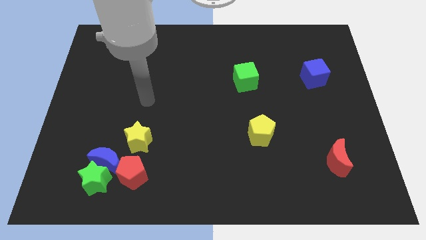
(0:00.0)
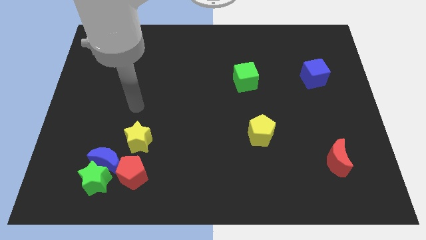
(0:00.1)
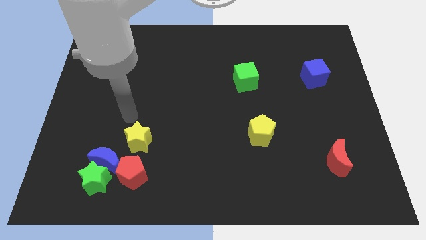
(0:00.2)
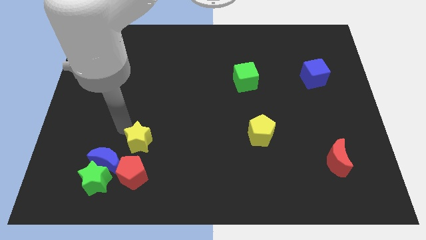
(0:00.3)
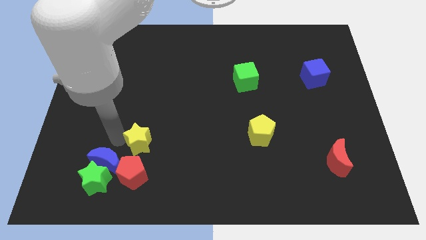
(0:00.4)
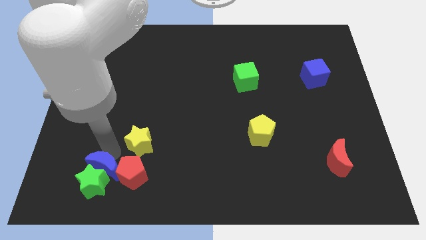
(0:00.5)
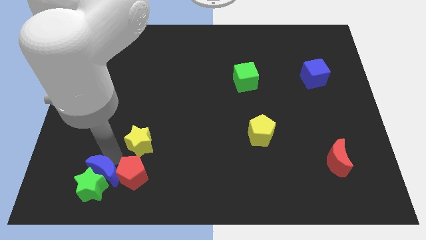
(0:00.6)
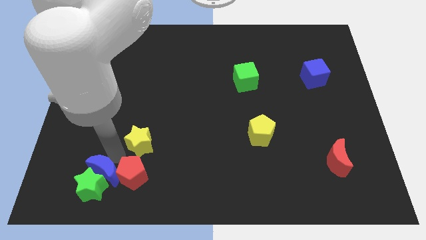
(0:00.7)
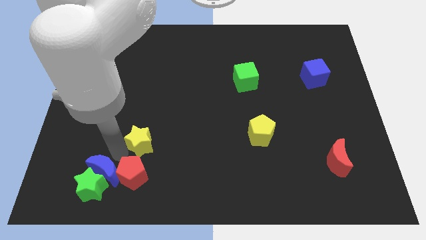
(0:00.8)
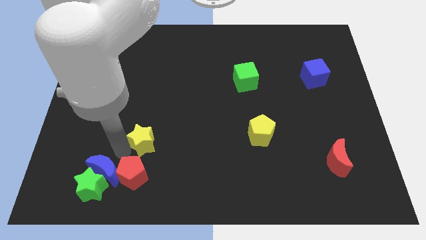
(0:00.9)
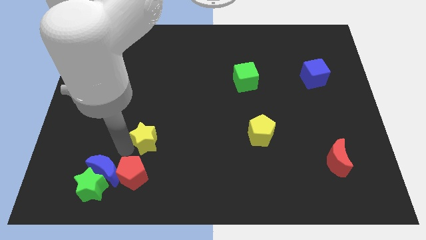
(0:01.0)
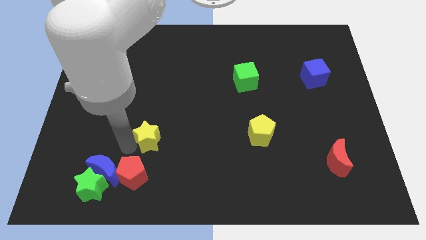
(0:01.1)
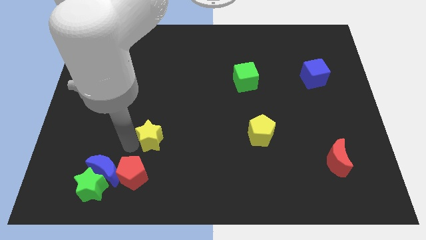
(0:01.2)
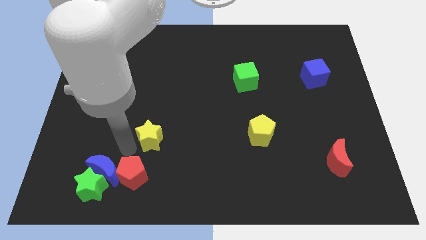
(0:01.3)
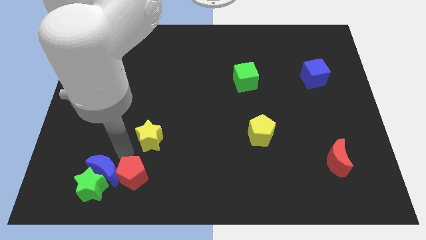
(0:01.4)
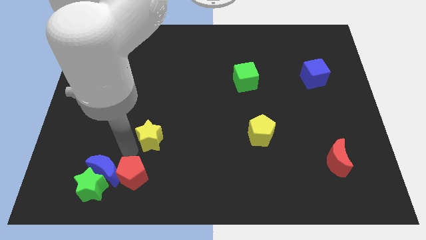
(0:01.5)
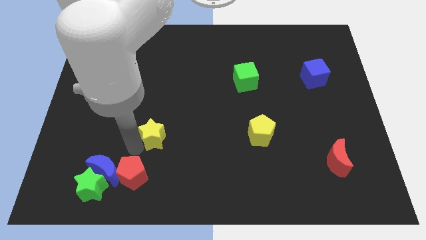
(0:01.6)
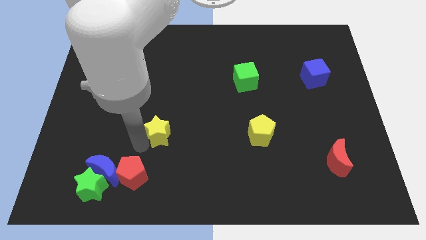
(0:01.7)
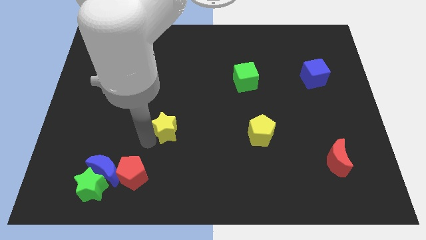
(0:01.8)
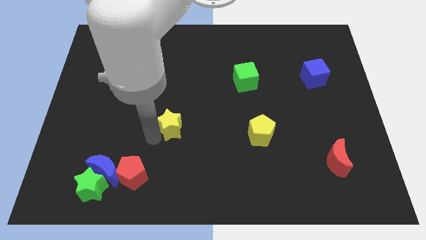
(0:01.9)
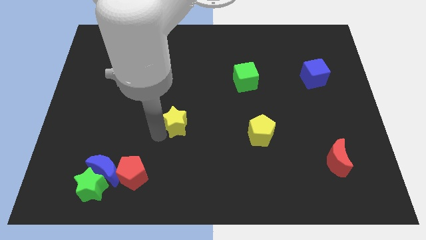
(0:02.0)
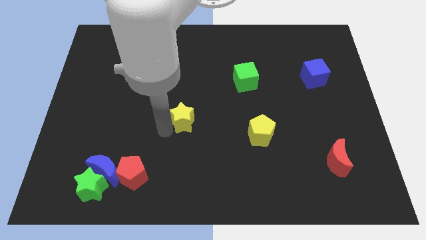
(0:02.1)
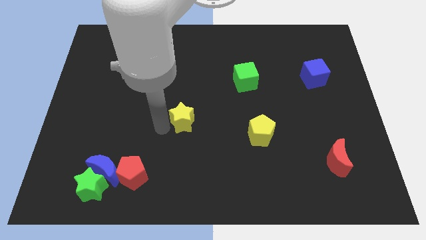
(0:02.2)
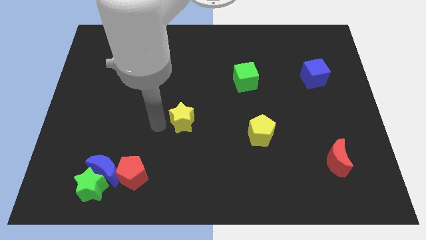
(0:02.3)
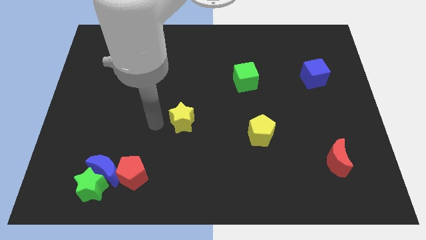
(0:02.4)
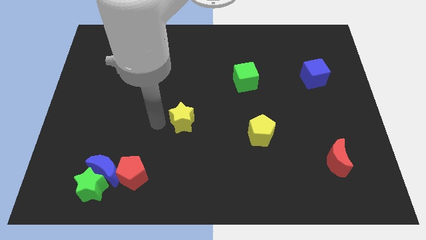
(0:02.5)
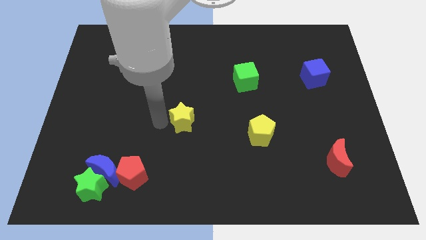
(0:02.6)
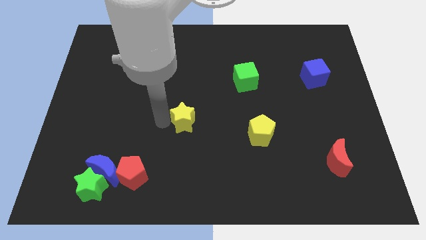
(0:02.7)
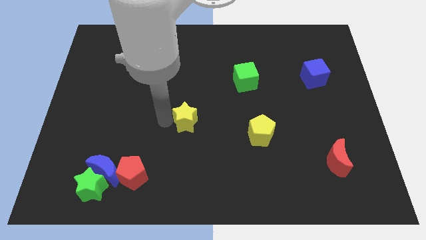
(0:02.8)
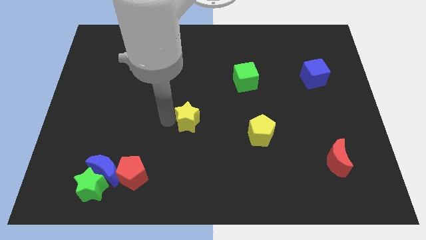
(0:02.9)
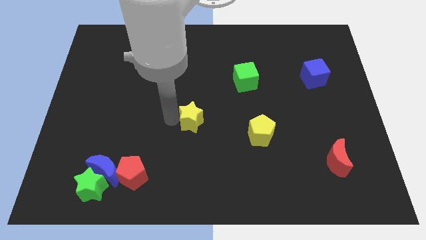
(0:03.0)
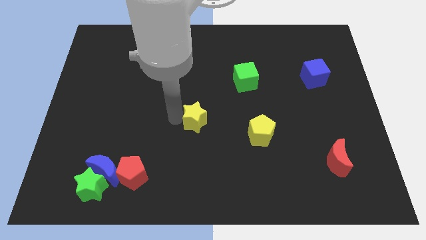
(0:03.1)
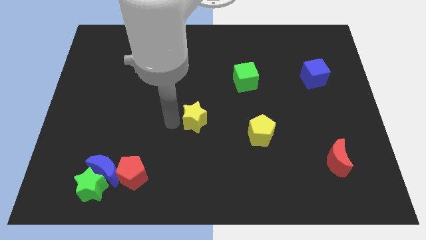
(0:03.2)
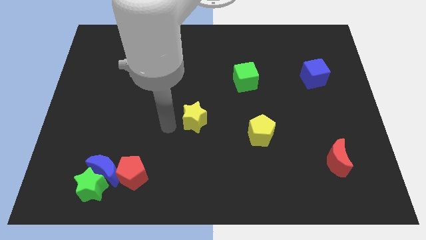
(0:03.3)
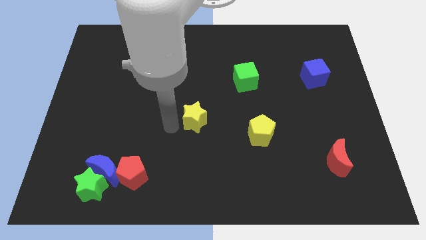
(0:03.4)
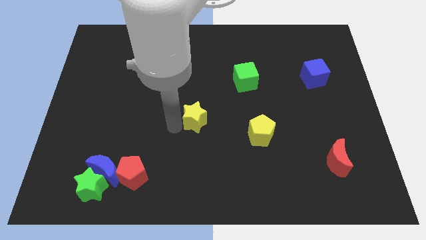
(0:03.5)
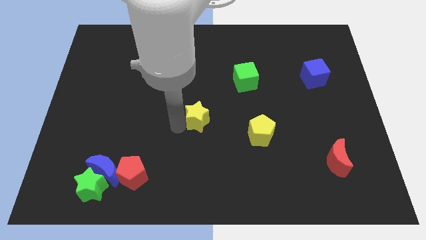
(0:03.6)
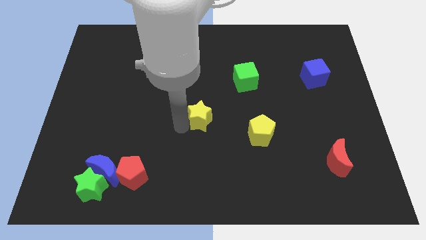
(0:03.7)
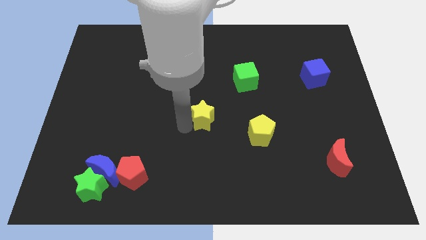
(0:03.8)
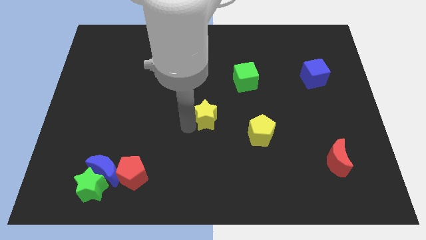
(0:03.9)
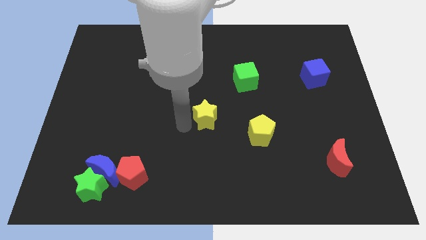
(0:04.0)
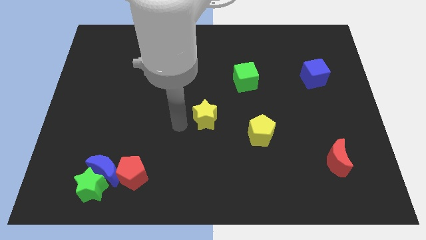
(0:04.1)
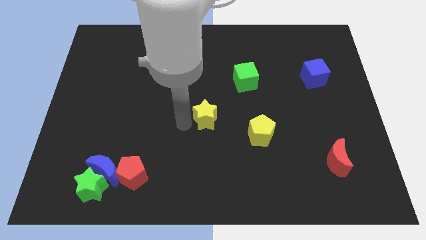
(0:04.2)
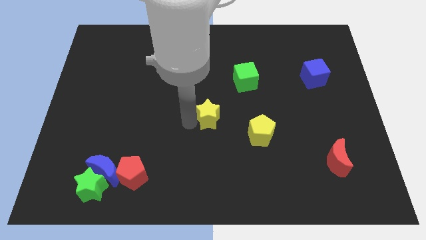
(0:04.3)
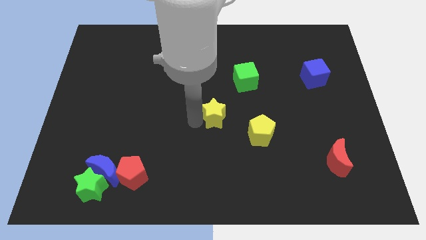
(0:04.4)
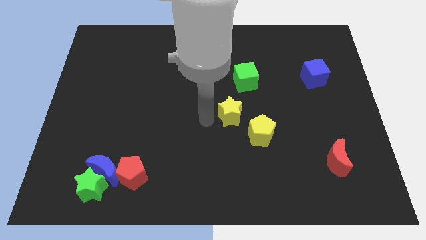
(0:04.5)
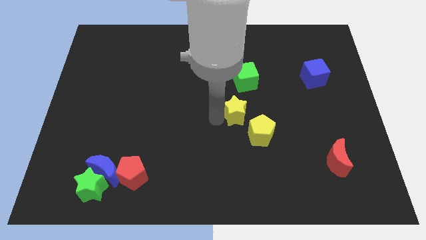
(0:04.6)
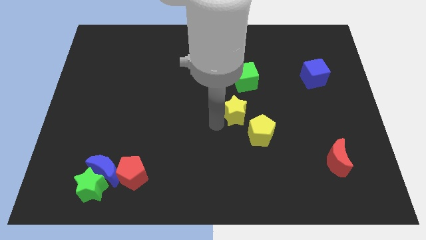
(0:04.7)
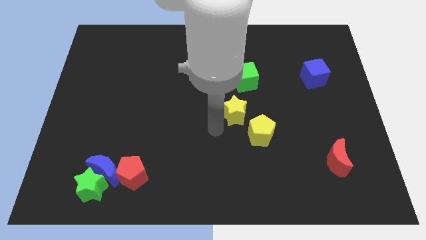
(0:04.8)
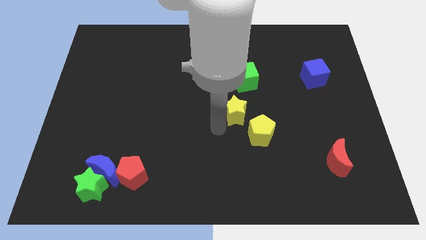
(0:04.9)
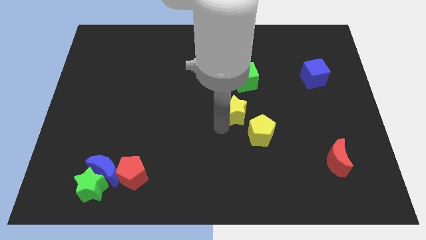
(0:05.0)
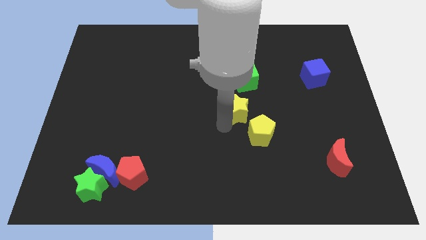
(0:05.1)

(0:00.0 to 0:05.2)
move the yellow star to the top side of the yellow pentagon

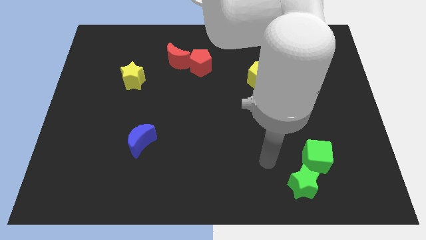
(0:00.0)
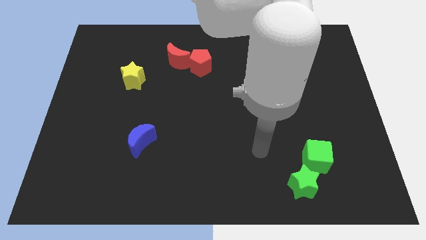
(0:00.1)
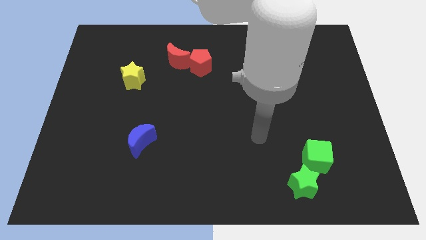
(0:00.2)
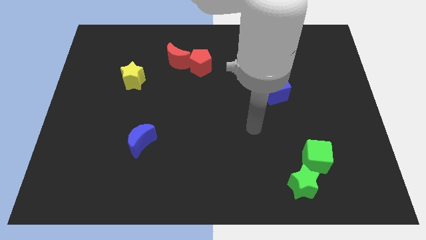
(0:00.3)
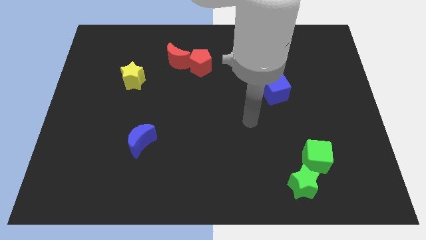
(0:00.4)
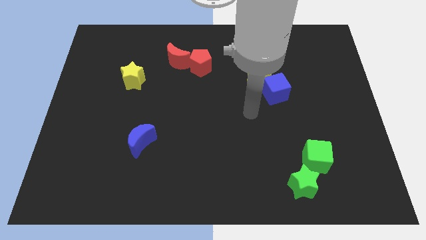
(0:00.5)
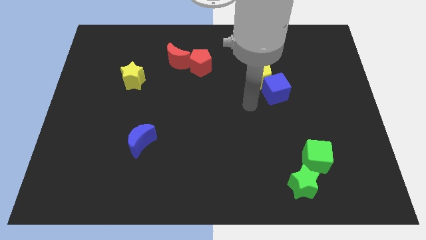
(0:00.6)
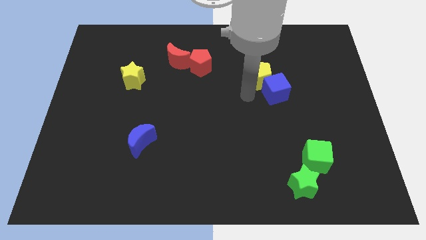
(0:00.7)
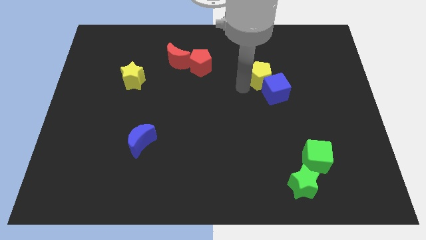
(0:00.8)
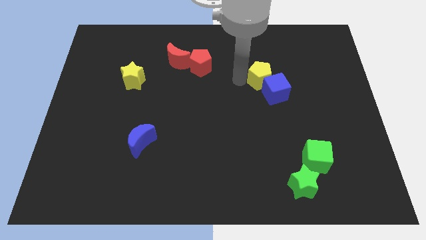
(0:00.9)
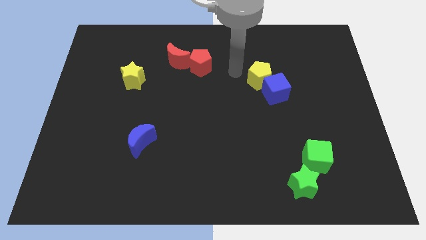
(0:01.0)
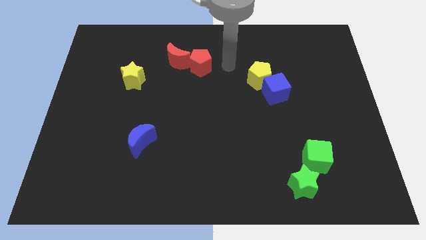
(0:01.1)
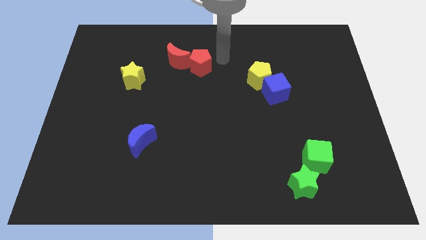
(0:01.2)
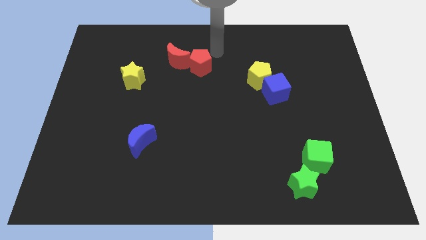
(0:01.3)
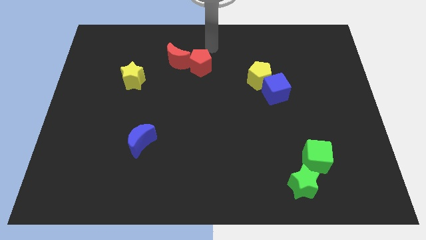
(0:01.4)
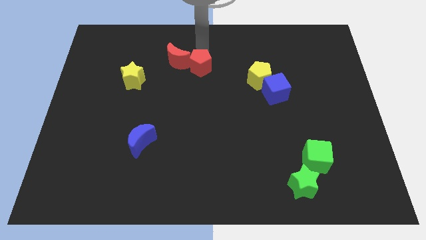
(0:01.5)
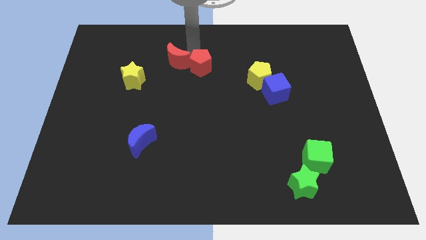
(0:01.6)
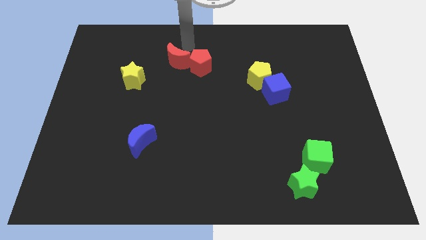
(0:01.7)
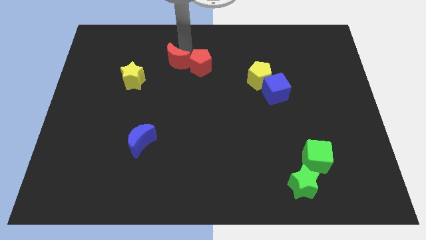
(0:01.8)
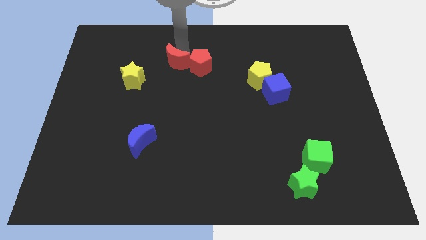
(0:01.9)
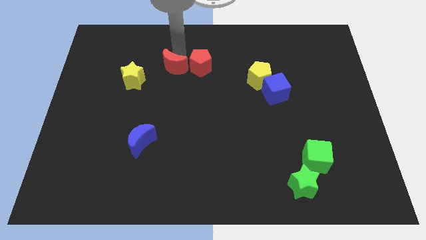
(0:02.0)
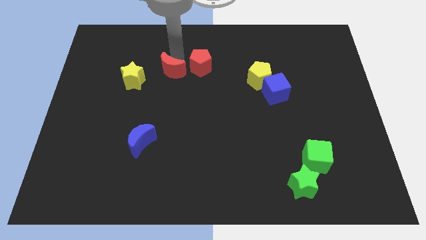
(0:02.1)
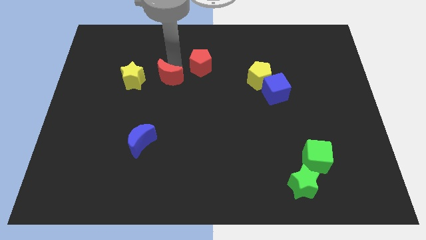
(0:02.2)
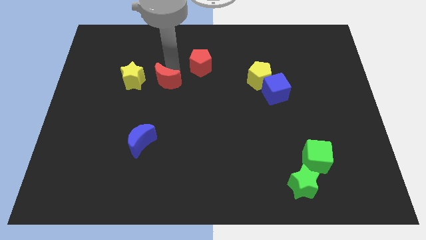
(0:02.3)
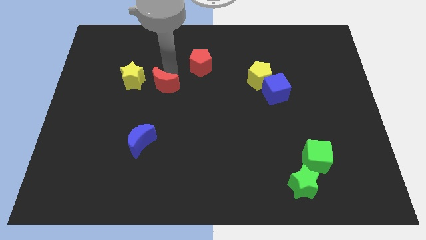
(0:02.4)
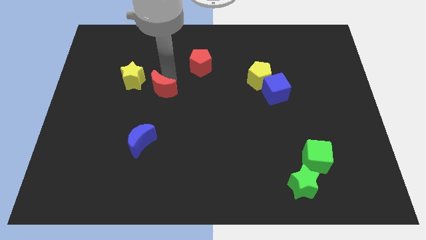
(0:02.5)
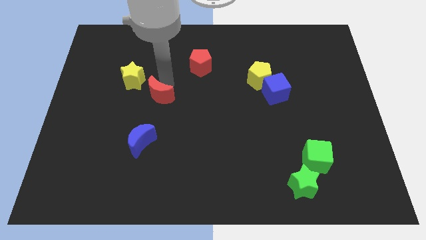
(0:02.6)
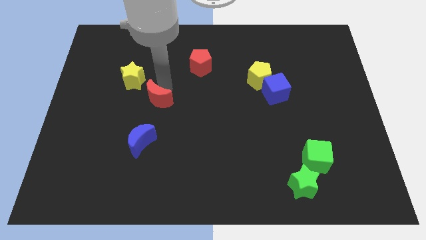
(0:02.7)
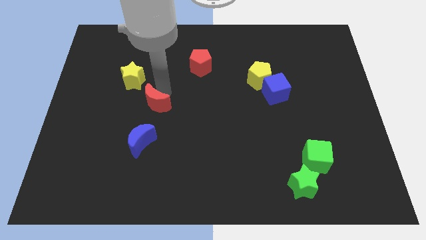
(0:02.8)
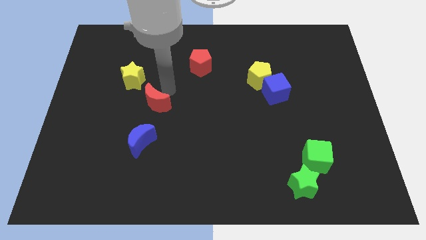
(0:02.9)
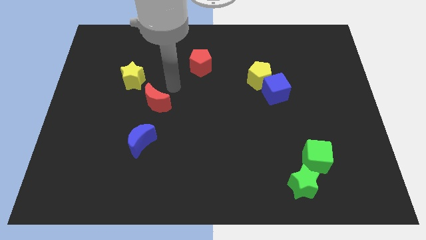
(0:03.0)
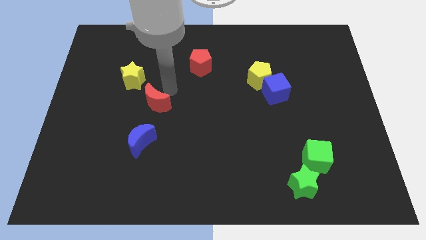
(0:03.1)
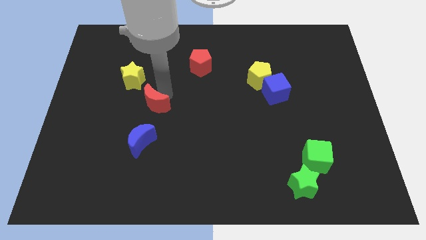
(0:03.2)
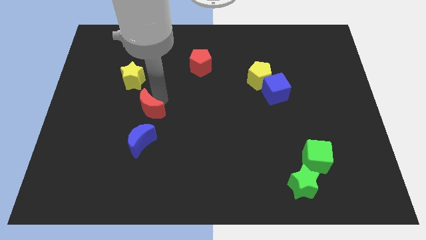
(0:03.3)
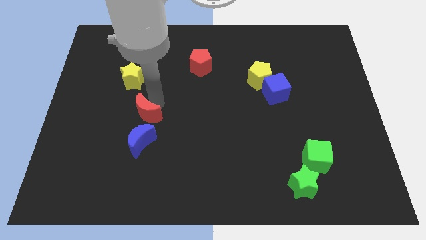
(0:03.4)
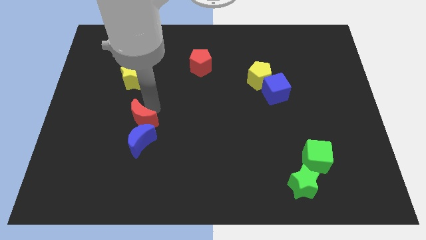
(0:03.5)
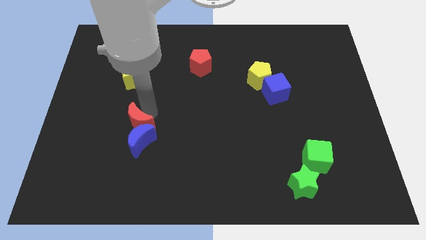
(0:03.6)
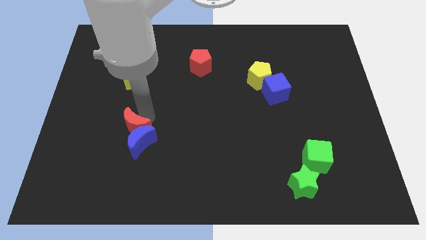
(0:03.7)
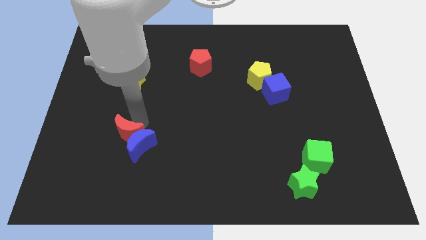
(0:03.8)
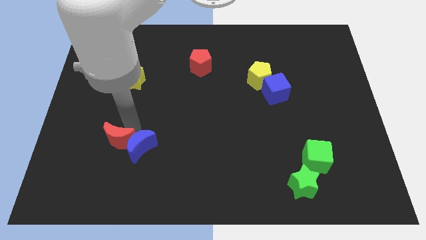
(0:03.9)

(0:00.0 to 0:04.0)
slide the red moon to the bottom left of the blue moon
